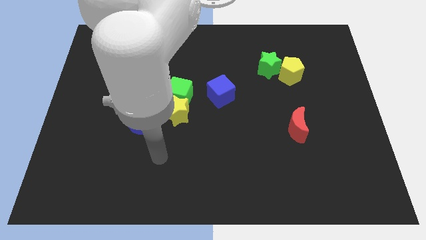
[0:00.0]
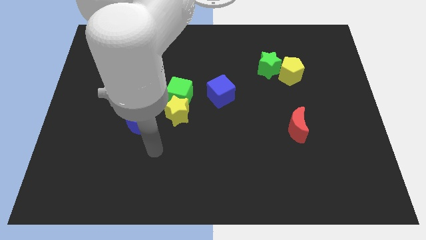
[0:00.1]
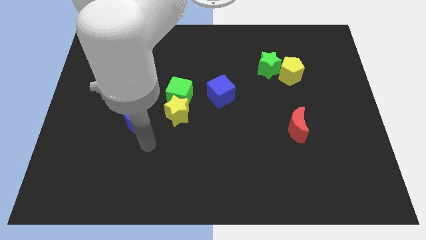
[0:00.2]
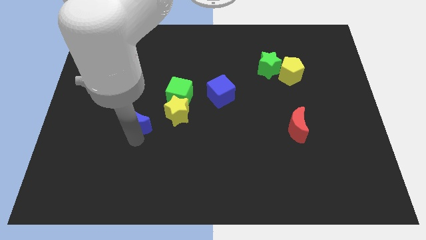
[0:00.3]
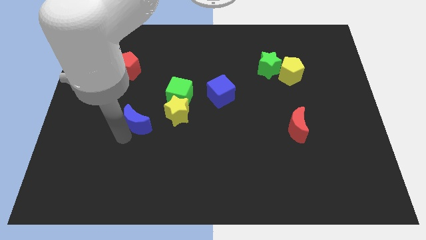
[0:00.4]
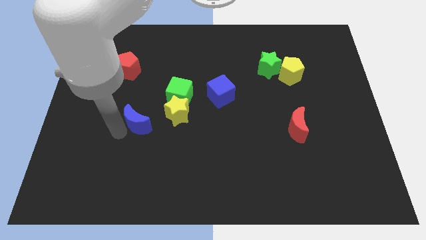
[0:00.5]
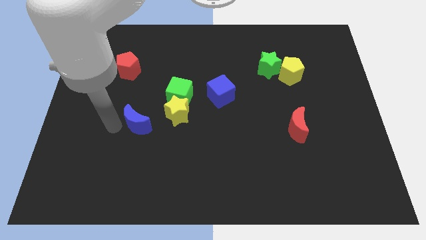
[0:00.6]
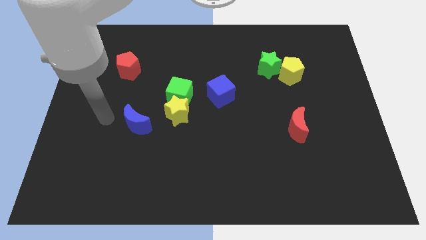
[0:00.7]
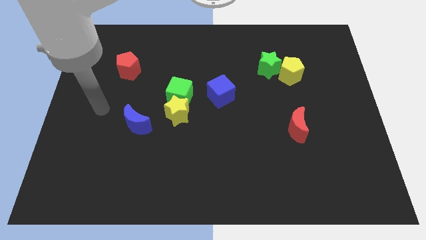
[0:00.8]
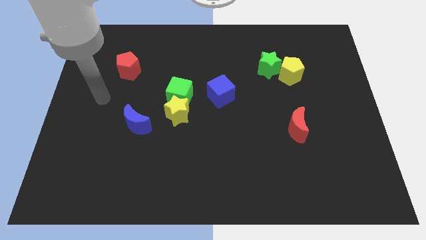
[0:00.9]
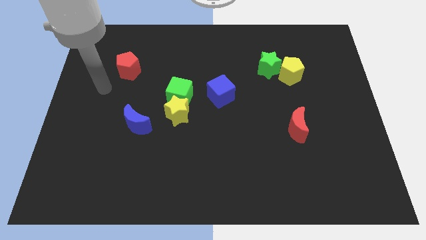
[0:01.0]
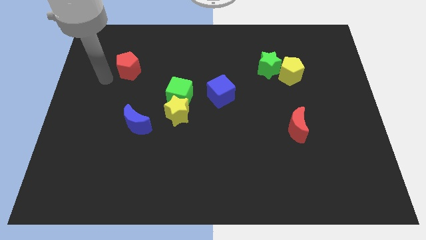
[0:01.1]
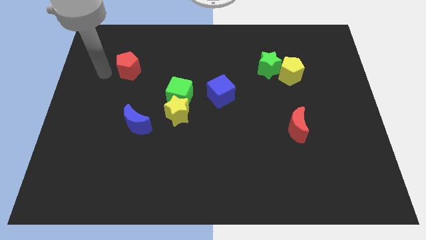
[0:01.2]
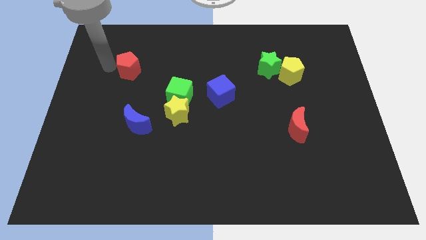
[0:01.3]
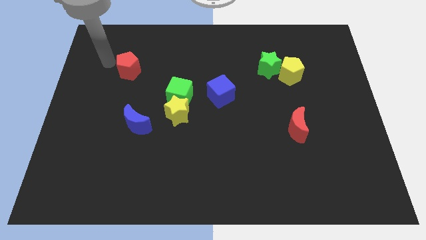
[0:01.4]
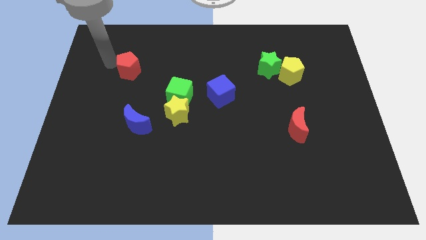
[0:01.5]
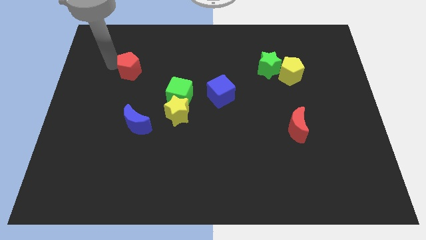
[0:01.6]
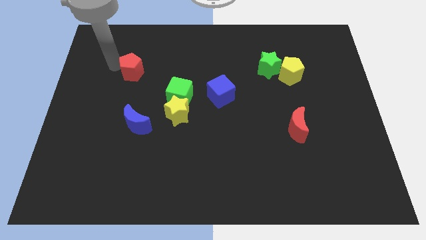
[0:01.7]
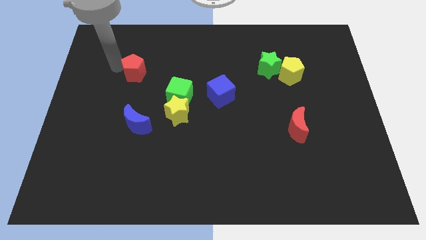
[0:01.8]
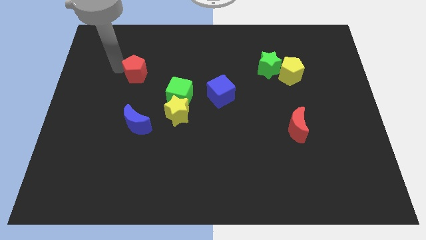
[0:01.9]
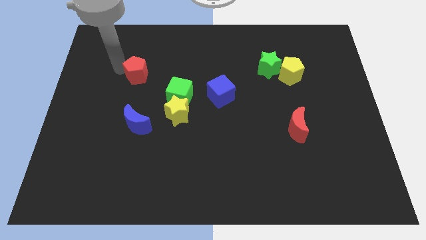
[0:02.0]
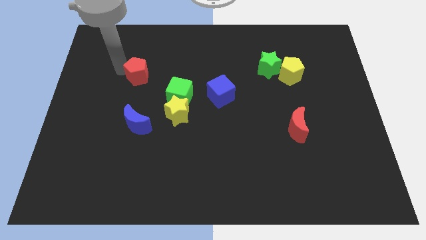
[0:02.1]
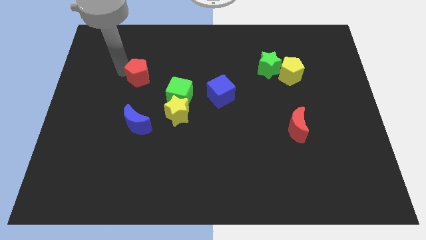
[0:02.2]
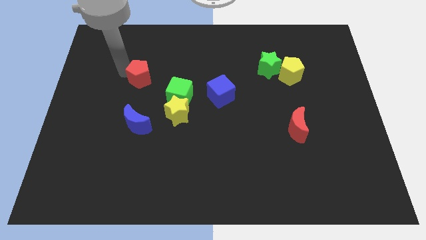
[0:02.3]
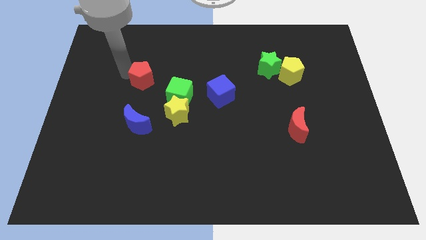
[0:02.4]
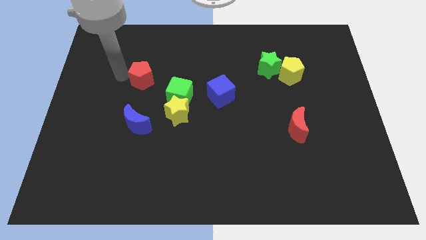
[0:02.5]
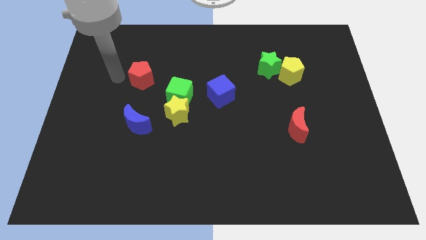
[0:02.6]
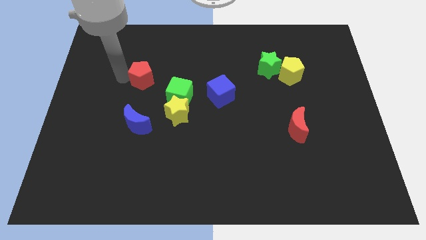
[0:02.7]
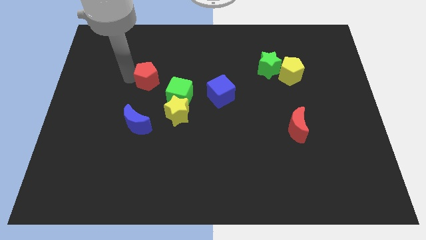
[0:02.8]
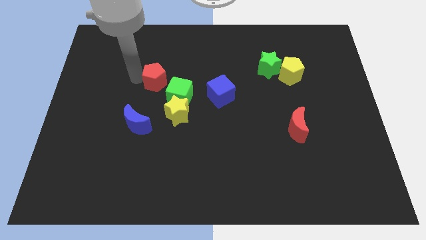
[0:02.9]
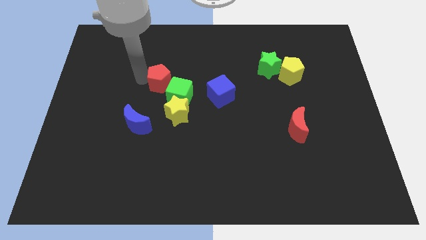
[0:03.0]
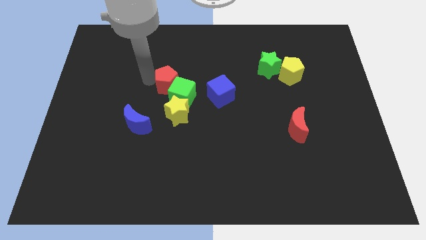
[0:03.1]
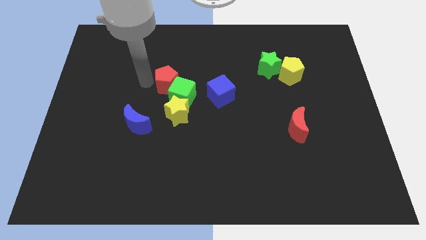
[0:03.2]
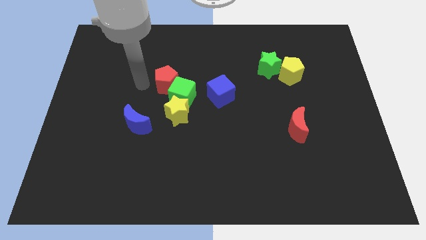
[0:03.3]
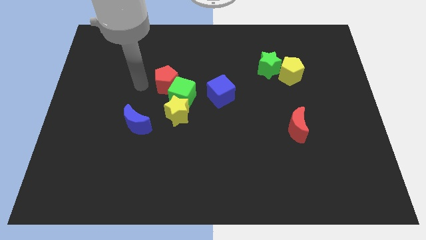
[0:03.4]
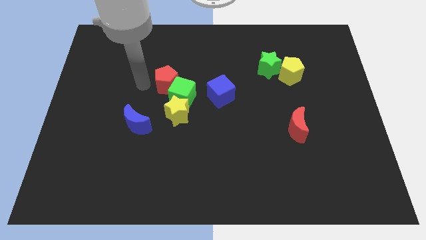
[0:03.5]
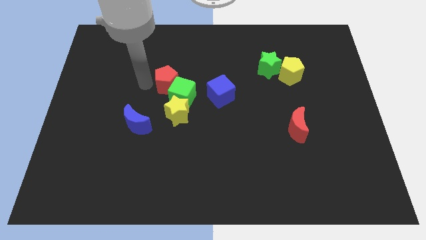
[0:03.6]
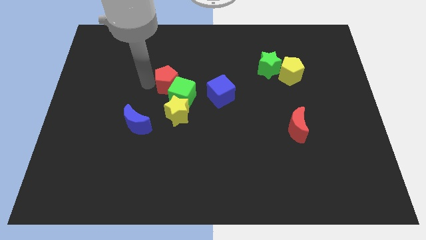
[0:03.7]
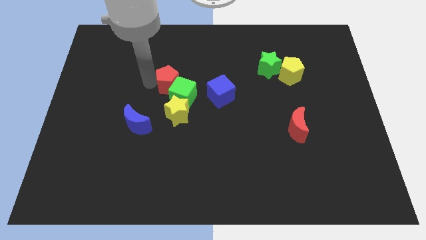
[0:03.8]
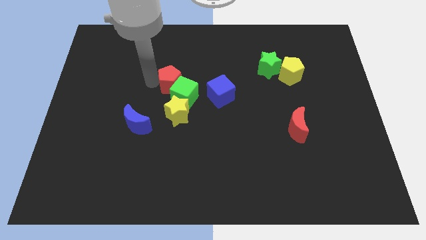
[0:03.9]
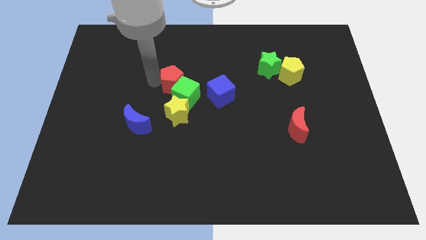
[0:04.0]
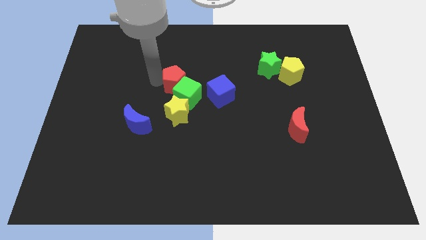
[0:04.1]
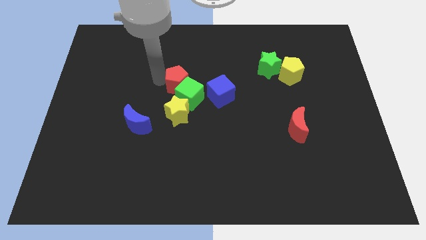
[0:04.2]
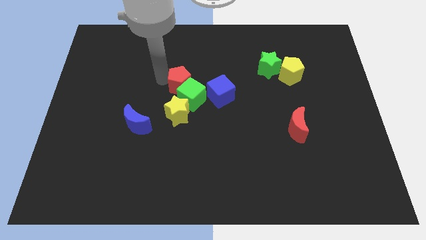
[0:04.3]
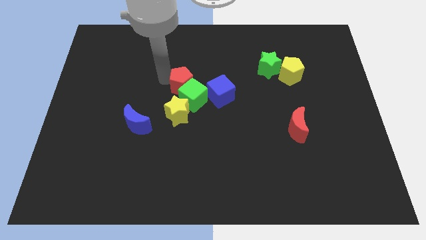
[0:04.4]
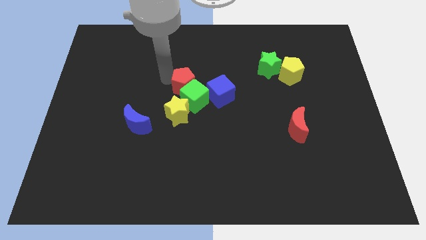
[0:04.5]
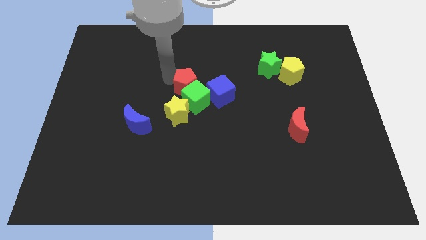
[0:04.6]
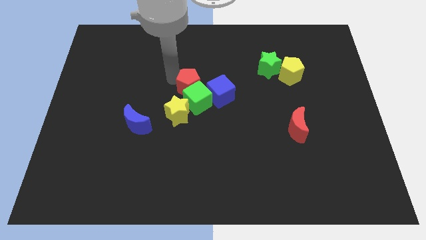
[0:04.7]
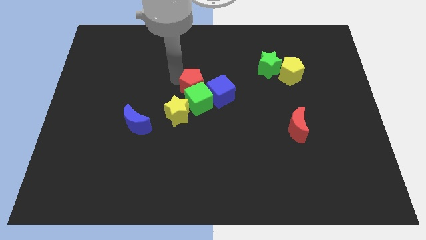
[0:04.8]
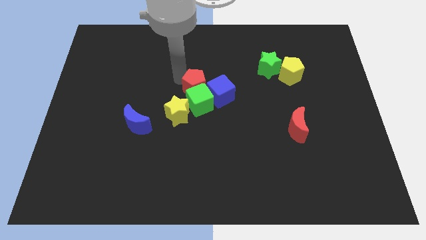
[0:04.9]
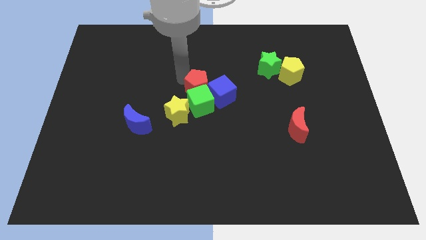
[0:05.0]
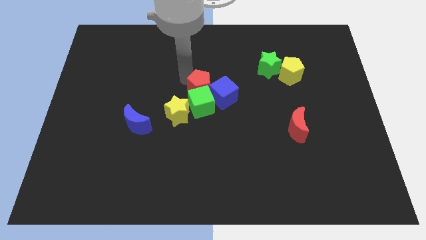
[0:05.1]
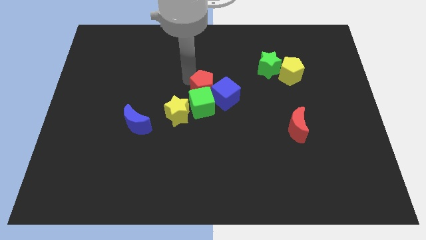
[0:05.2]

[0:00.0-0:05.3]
put the red pentagon close to the blue cube

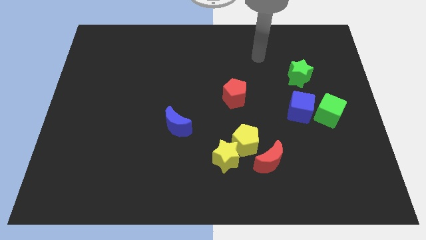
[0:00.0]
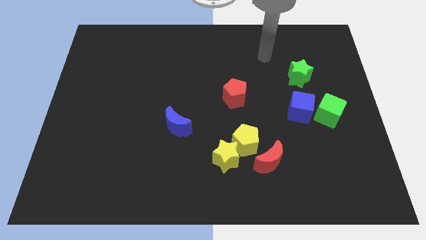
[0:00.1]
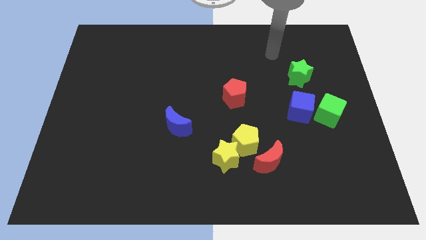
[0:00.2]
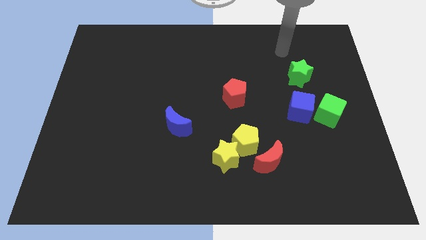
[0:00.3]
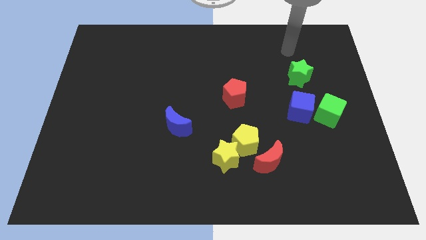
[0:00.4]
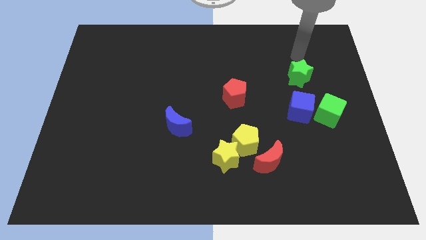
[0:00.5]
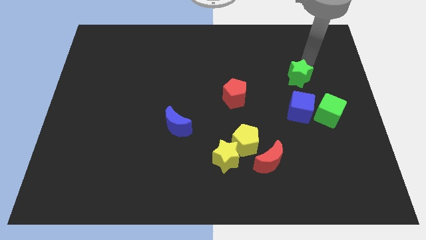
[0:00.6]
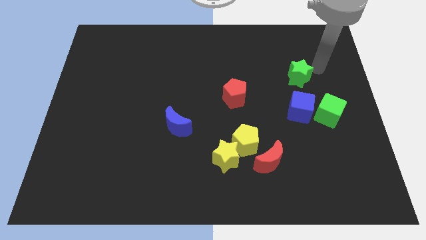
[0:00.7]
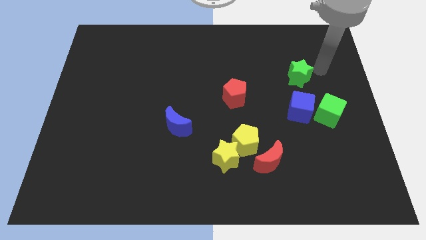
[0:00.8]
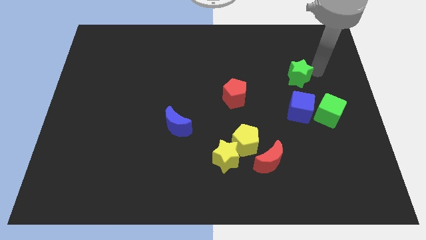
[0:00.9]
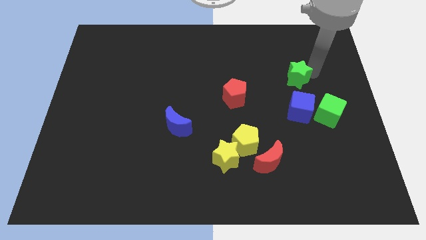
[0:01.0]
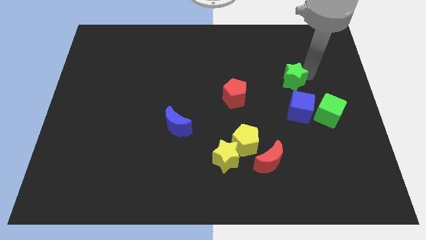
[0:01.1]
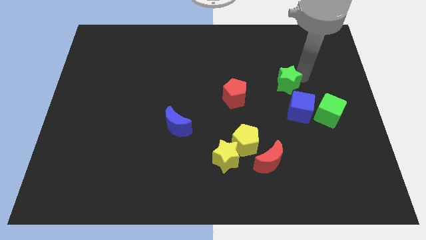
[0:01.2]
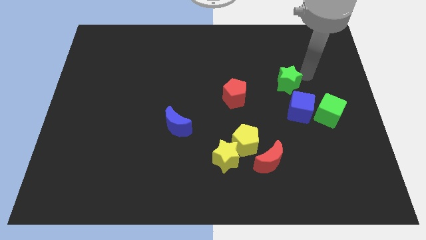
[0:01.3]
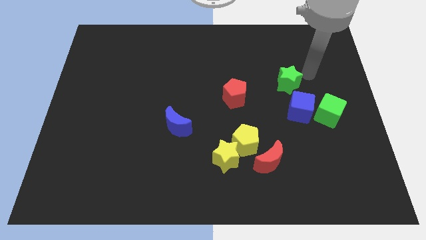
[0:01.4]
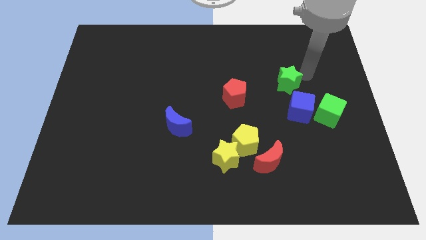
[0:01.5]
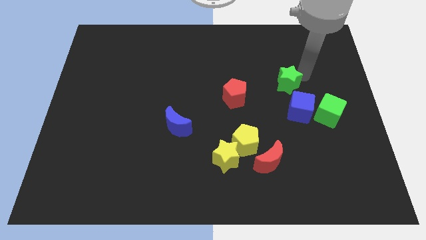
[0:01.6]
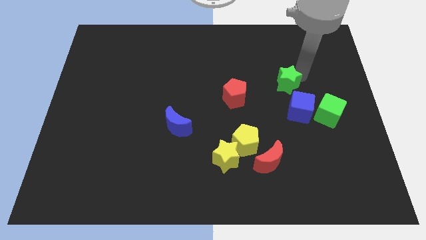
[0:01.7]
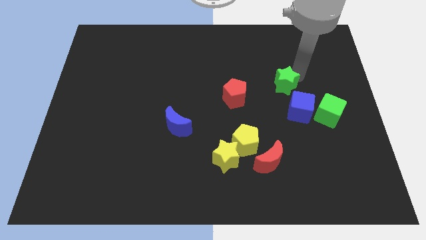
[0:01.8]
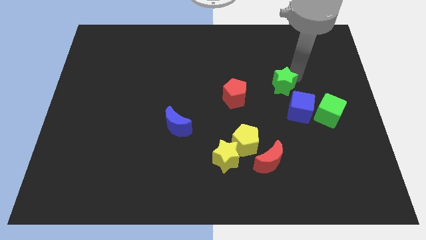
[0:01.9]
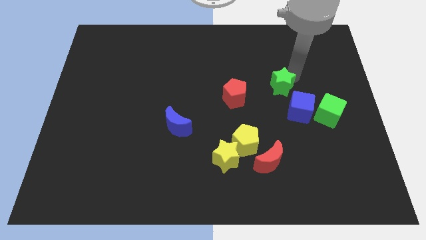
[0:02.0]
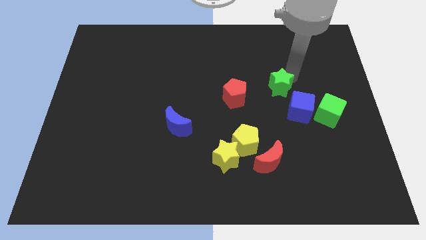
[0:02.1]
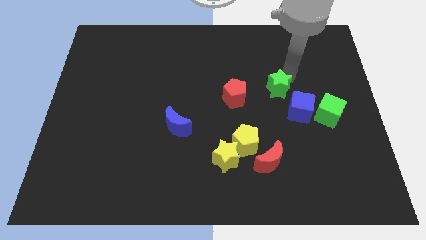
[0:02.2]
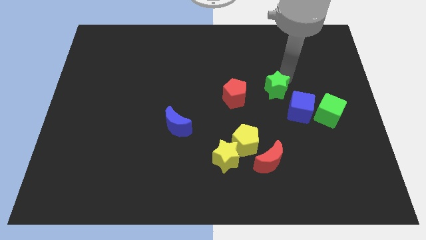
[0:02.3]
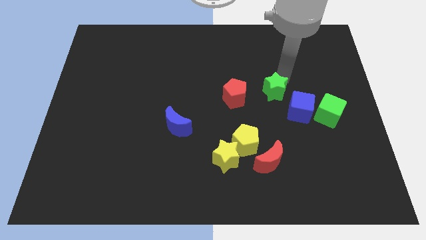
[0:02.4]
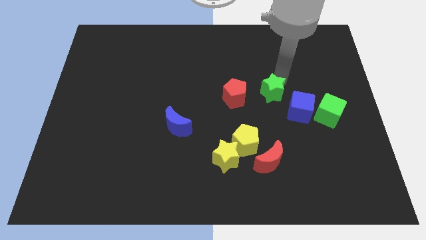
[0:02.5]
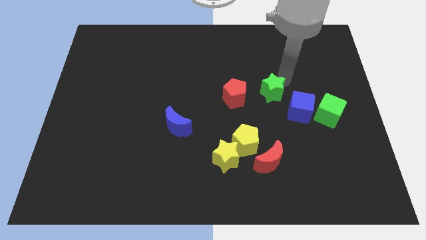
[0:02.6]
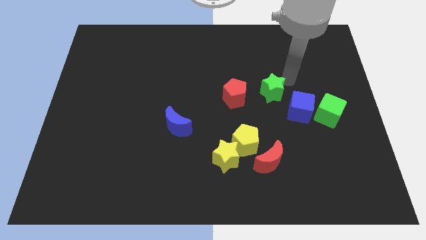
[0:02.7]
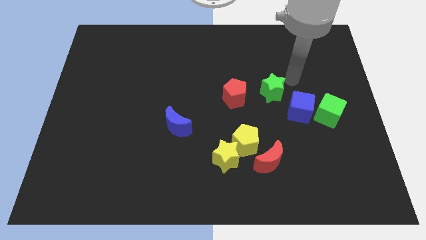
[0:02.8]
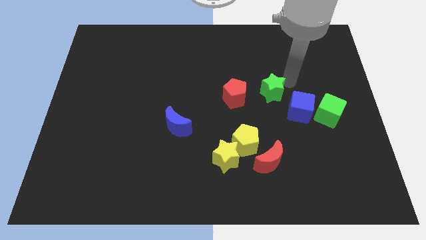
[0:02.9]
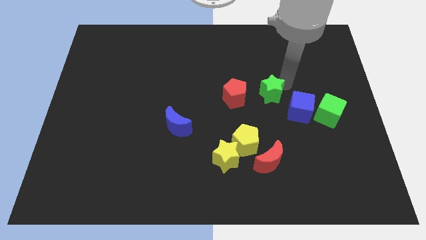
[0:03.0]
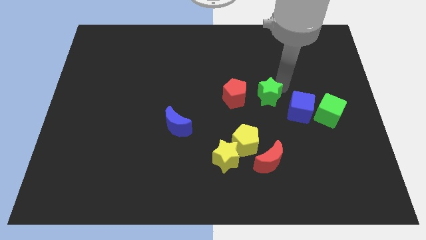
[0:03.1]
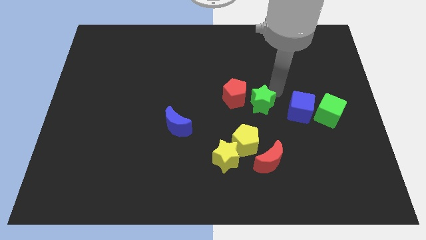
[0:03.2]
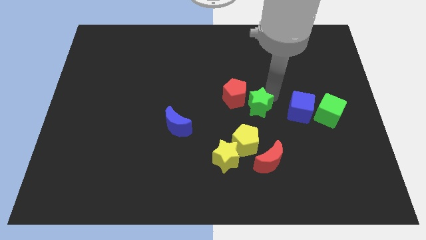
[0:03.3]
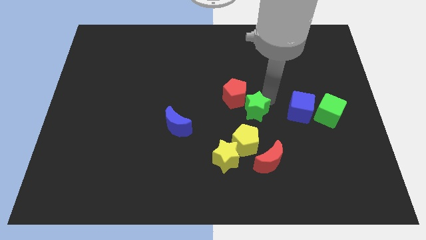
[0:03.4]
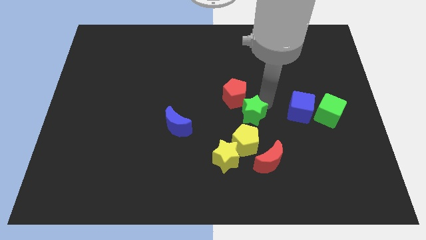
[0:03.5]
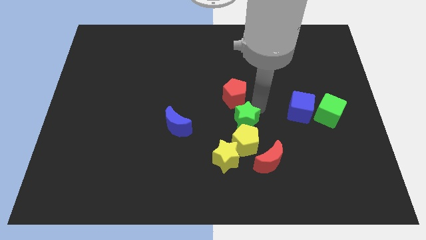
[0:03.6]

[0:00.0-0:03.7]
push the green star to the yellow pentagon
